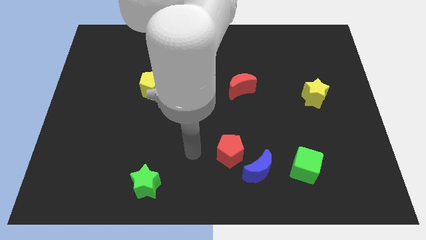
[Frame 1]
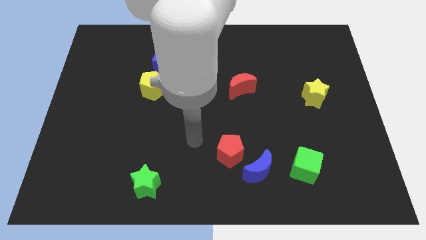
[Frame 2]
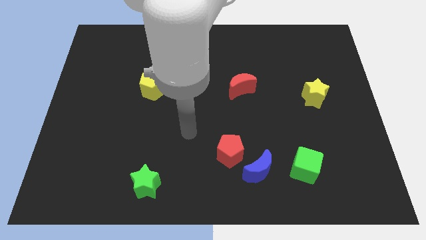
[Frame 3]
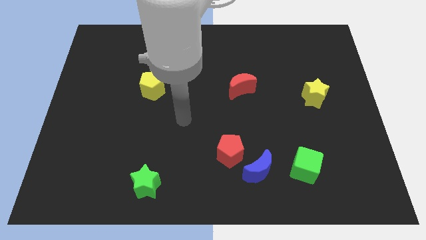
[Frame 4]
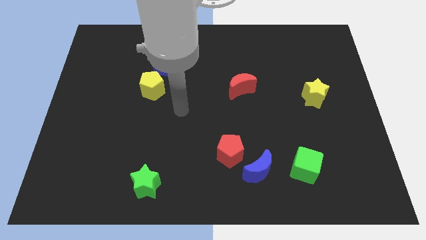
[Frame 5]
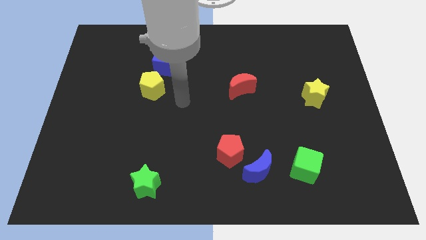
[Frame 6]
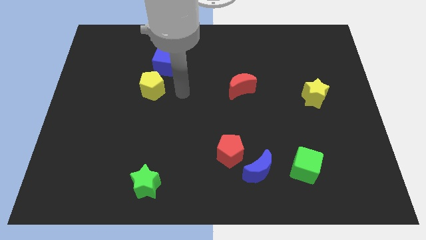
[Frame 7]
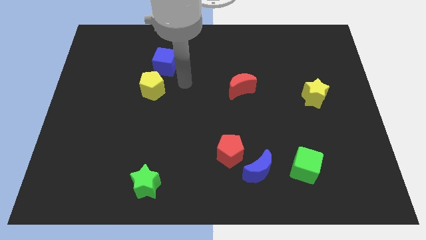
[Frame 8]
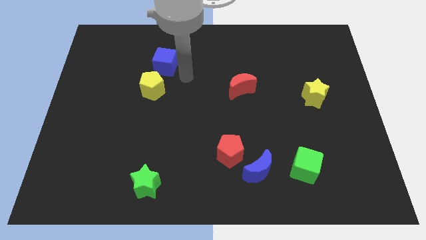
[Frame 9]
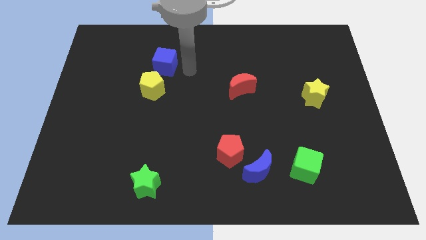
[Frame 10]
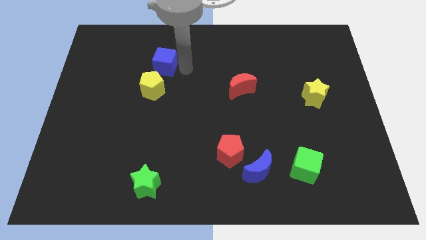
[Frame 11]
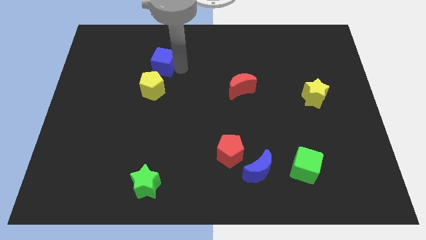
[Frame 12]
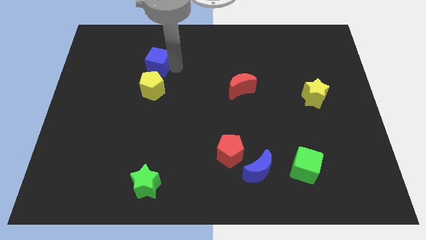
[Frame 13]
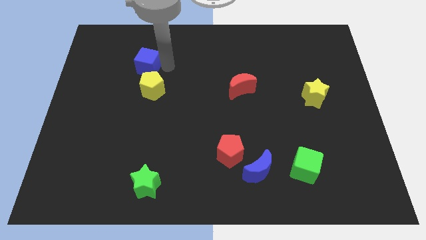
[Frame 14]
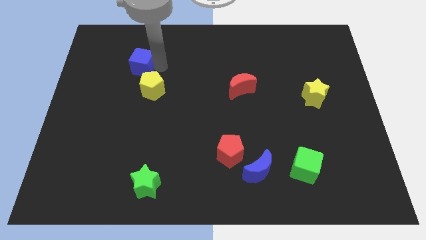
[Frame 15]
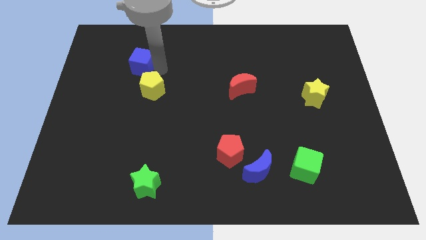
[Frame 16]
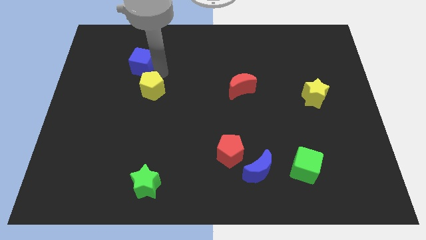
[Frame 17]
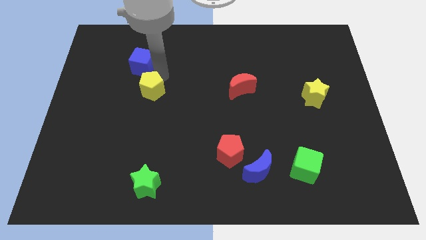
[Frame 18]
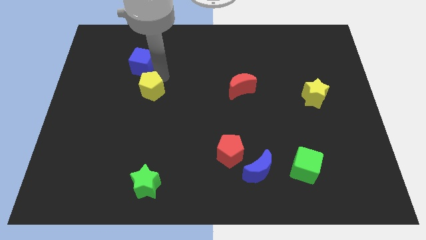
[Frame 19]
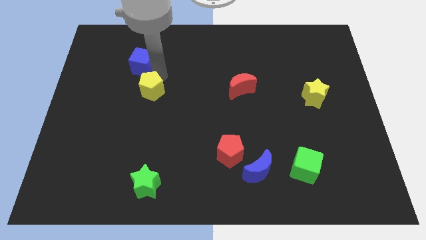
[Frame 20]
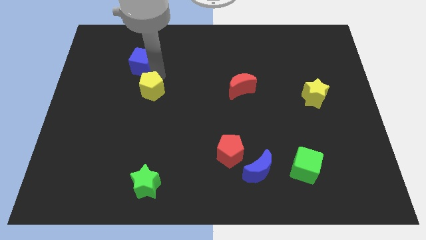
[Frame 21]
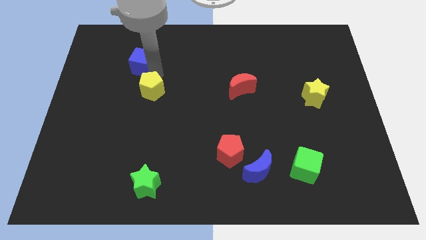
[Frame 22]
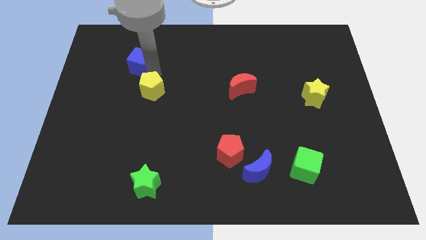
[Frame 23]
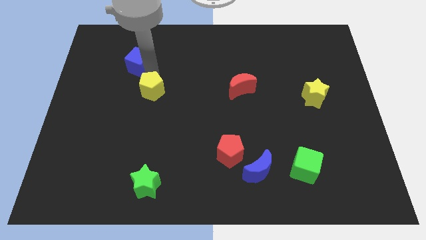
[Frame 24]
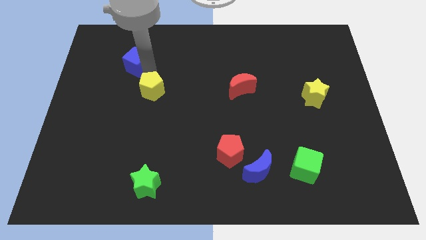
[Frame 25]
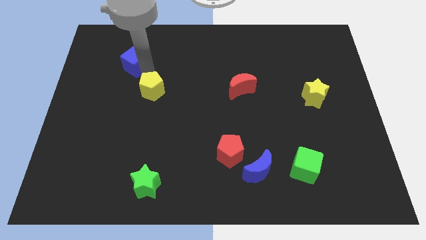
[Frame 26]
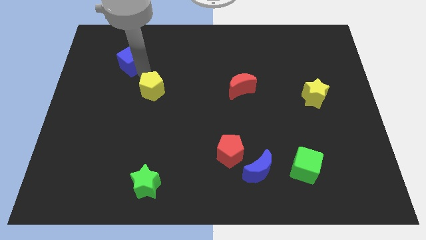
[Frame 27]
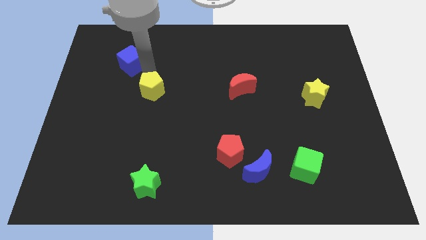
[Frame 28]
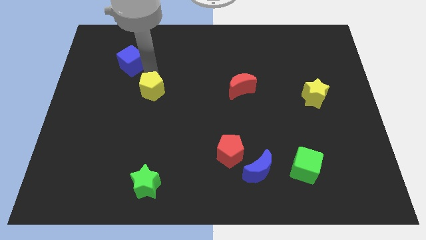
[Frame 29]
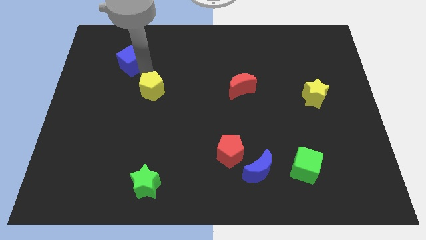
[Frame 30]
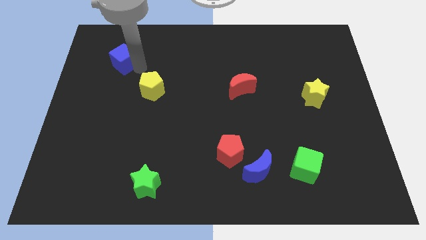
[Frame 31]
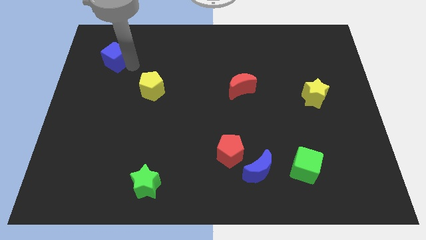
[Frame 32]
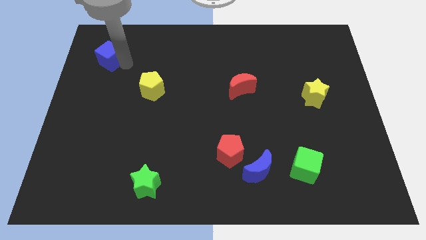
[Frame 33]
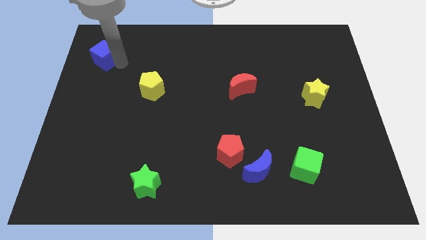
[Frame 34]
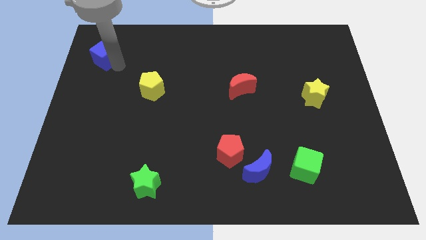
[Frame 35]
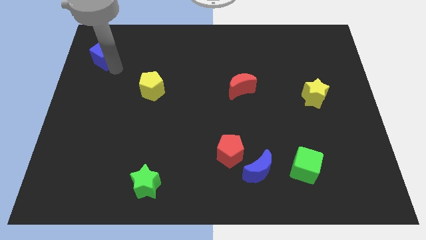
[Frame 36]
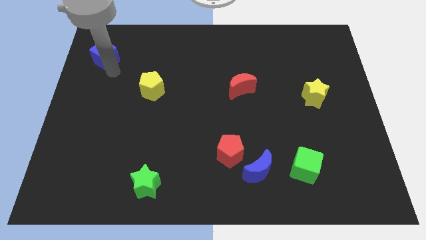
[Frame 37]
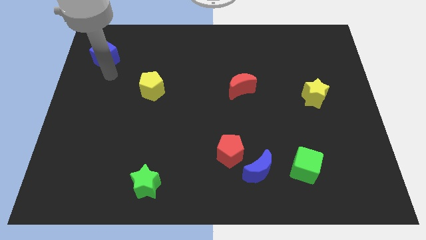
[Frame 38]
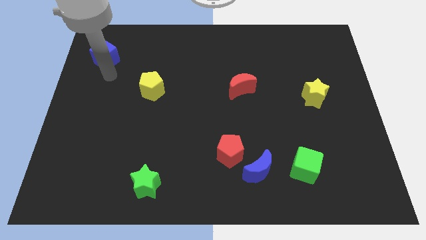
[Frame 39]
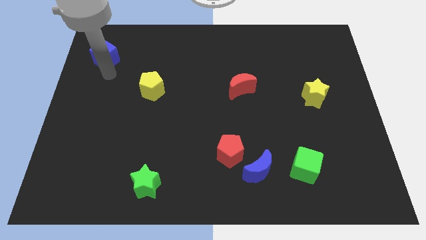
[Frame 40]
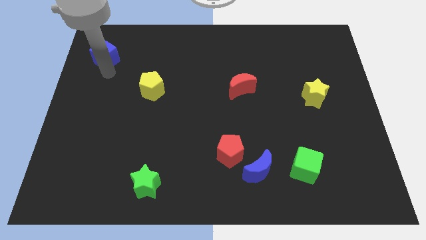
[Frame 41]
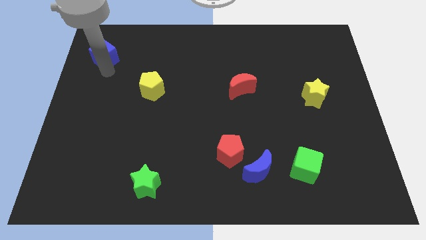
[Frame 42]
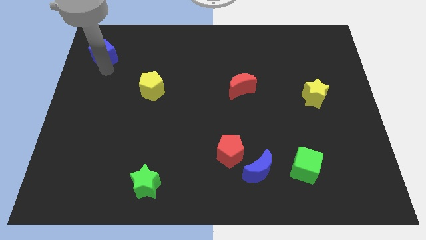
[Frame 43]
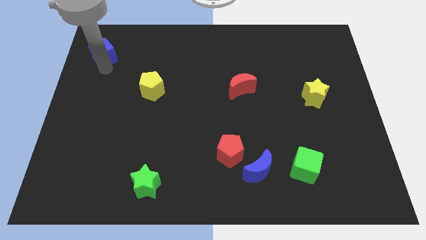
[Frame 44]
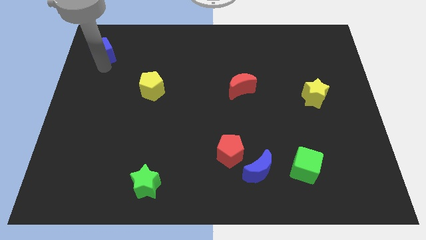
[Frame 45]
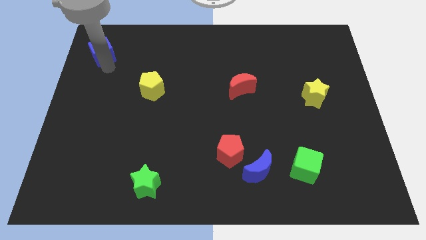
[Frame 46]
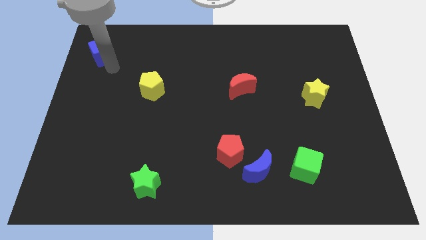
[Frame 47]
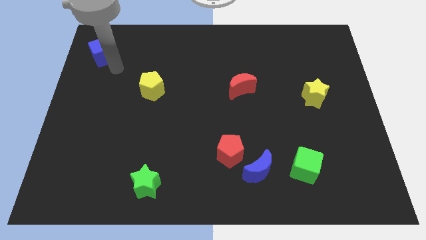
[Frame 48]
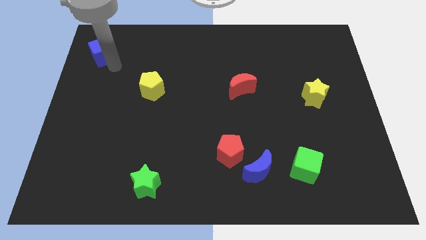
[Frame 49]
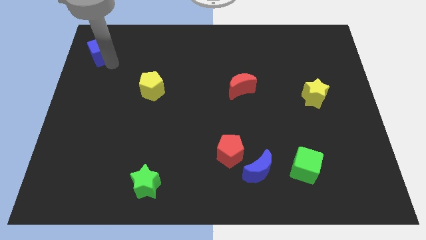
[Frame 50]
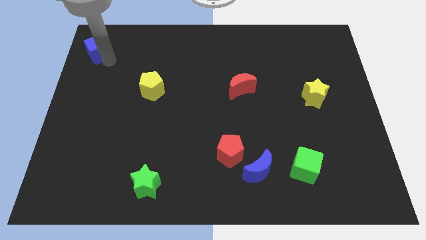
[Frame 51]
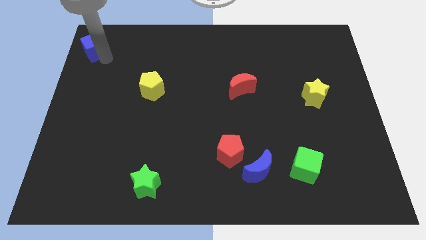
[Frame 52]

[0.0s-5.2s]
move the blue cube to the top left corner

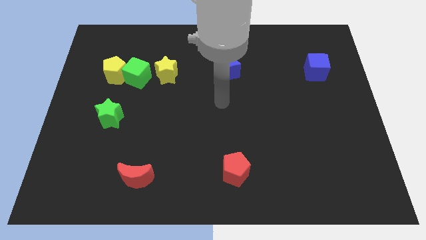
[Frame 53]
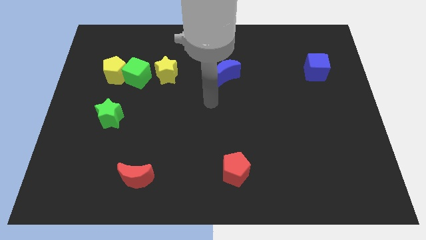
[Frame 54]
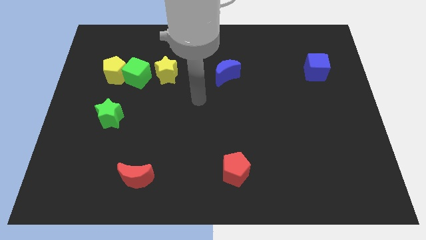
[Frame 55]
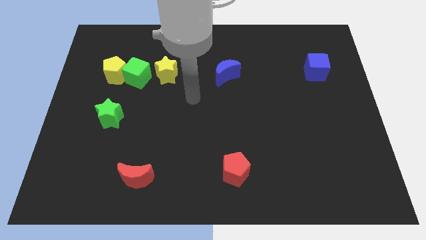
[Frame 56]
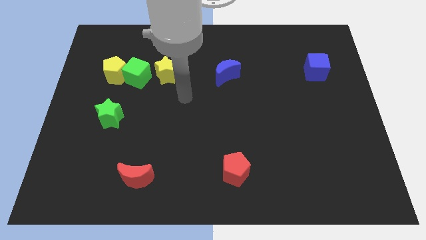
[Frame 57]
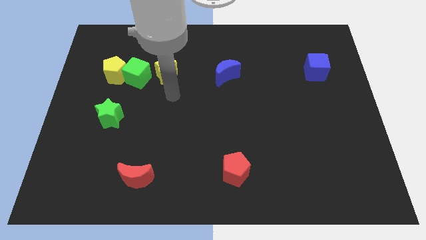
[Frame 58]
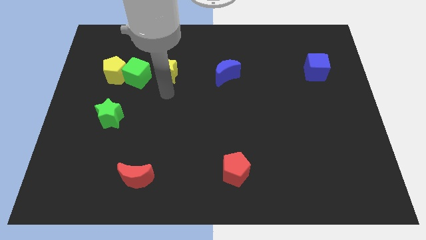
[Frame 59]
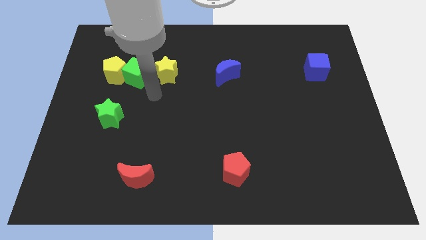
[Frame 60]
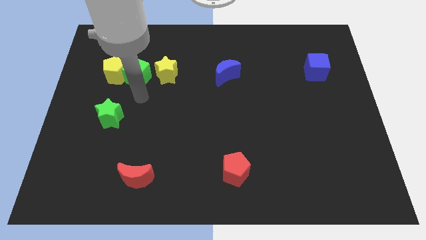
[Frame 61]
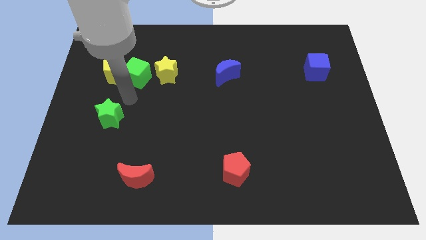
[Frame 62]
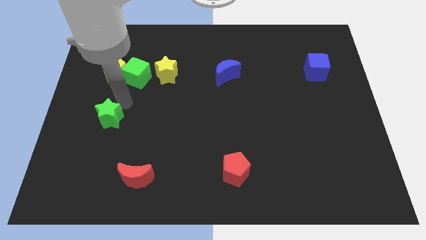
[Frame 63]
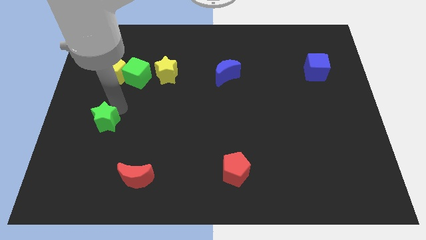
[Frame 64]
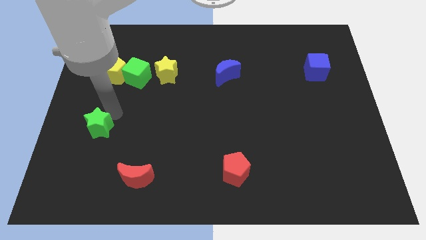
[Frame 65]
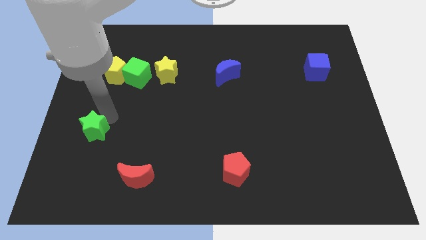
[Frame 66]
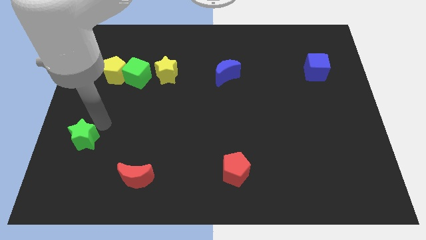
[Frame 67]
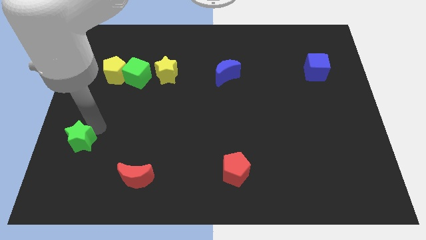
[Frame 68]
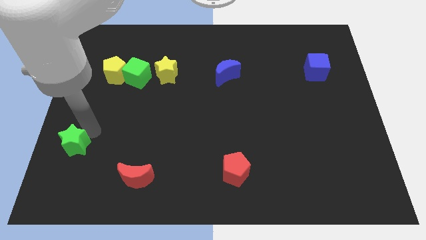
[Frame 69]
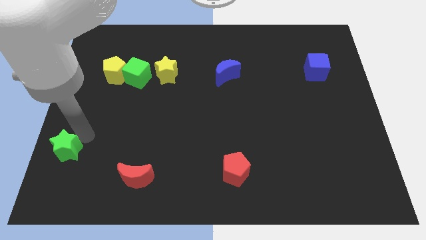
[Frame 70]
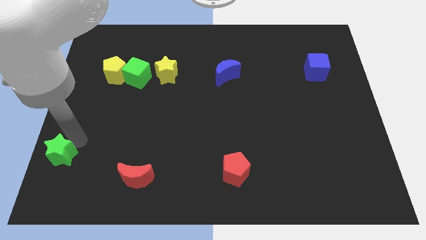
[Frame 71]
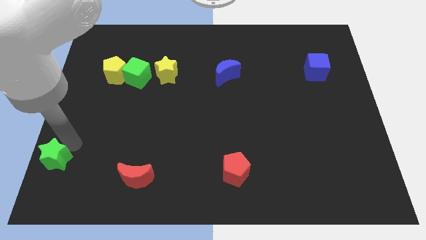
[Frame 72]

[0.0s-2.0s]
move the green star to the bottom left of the board
